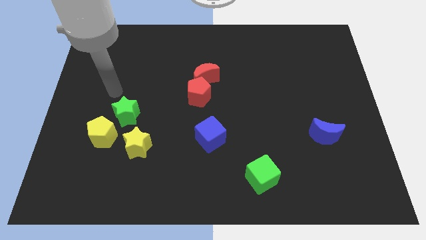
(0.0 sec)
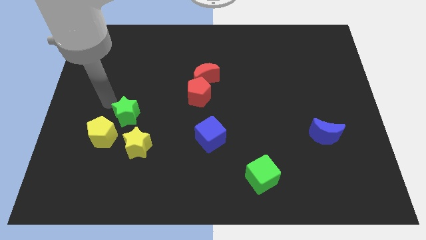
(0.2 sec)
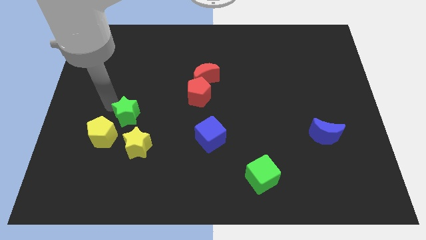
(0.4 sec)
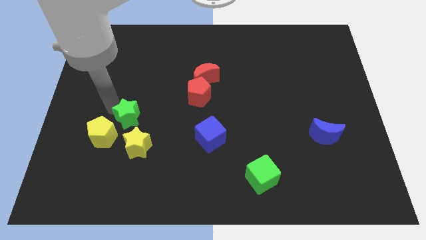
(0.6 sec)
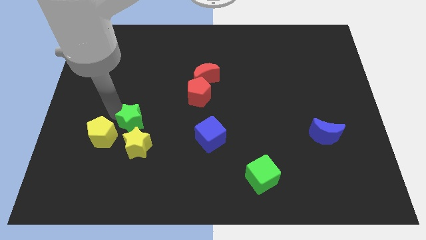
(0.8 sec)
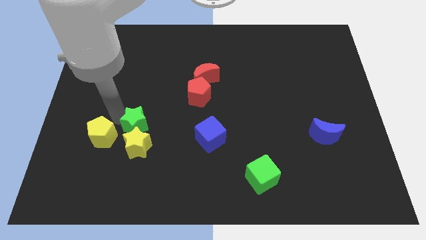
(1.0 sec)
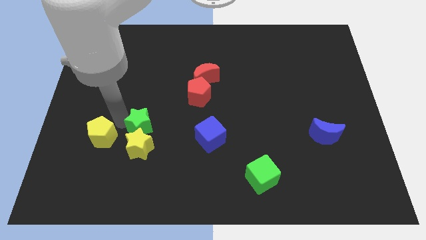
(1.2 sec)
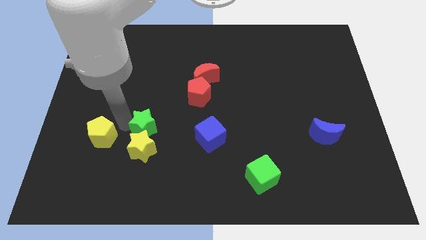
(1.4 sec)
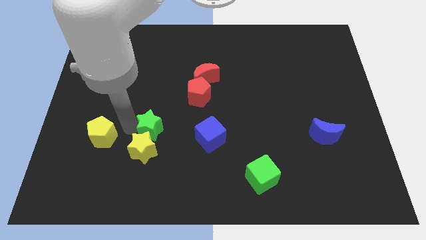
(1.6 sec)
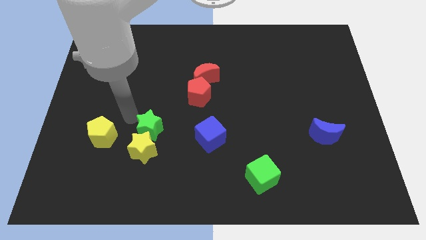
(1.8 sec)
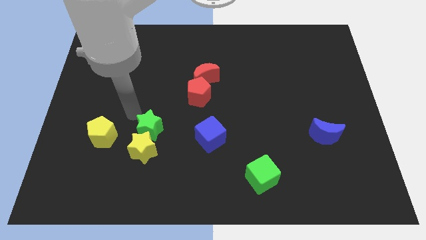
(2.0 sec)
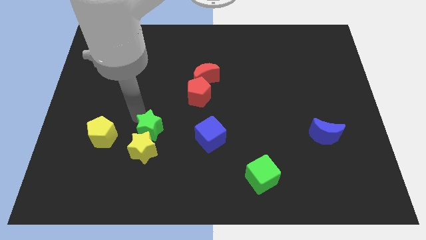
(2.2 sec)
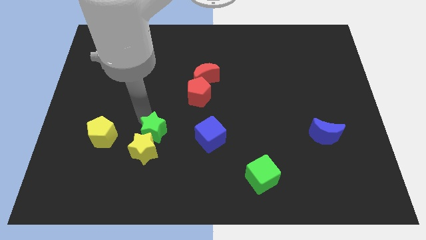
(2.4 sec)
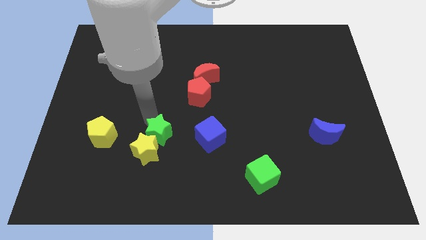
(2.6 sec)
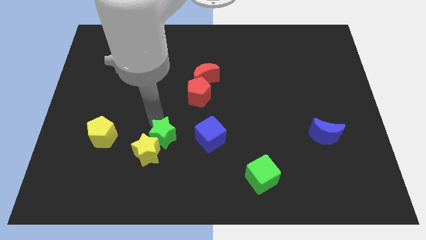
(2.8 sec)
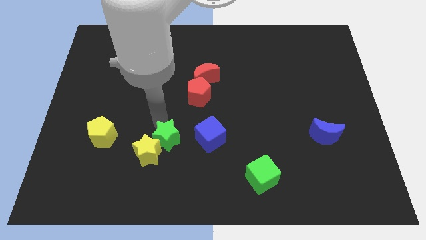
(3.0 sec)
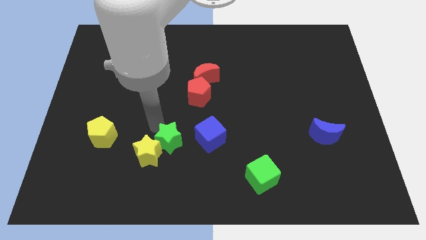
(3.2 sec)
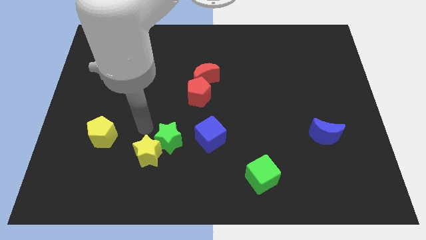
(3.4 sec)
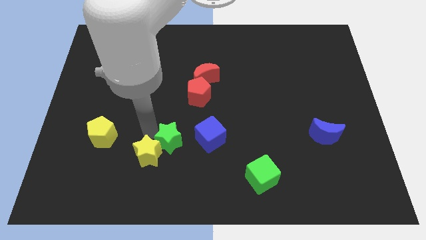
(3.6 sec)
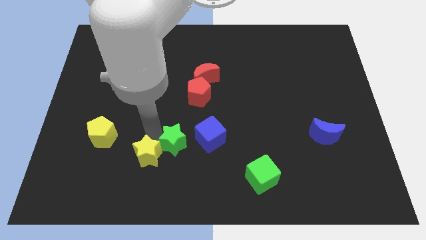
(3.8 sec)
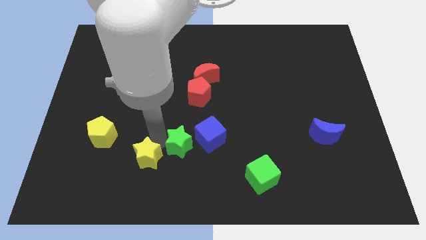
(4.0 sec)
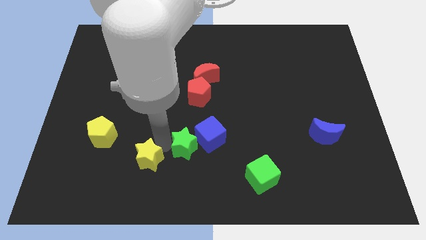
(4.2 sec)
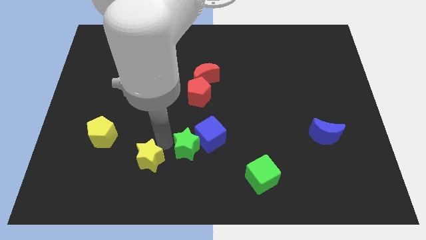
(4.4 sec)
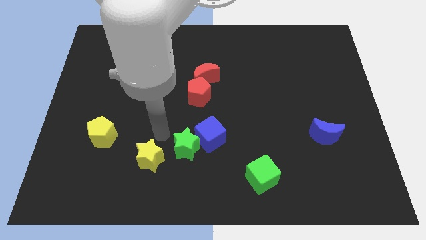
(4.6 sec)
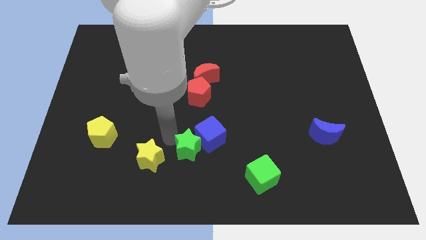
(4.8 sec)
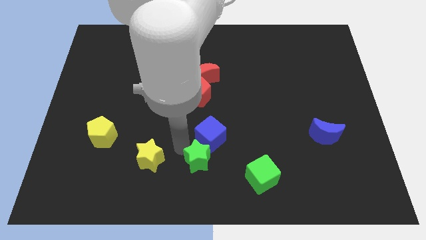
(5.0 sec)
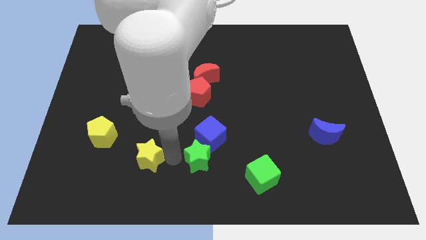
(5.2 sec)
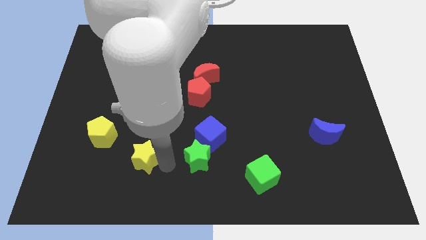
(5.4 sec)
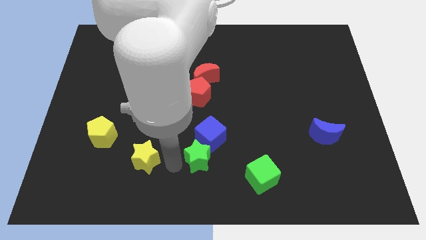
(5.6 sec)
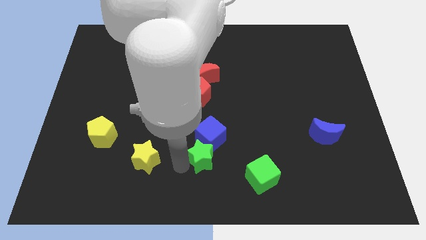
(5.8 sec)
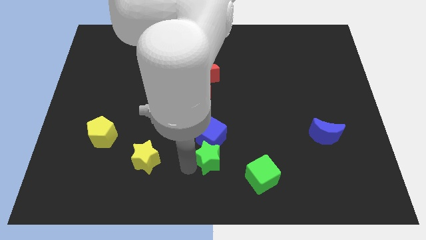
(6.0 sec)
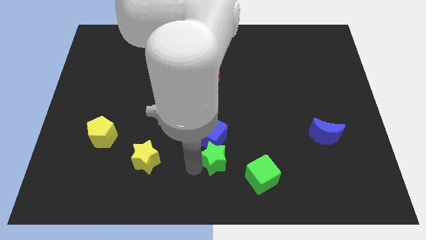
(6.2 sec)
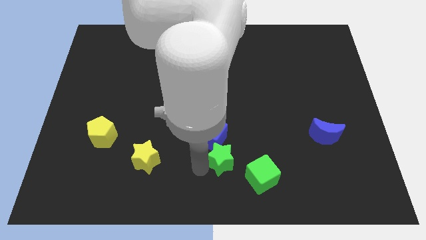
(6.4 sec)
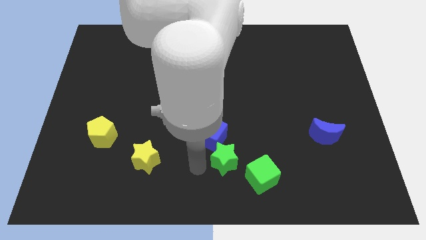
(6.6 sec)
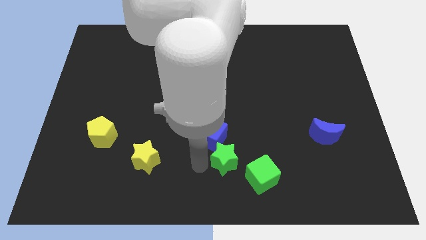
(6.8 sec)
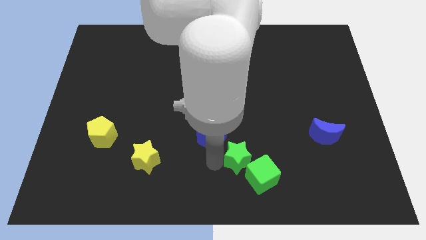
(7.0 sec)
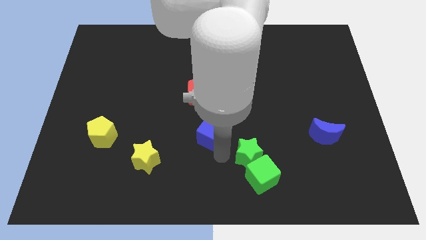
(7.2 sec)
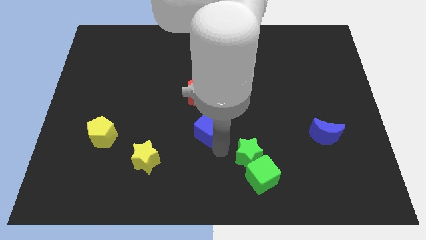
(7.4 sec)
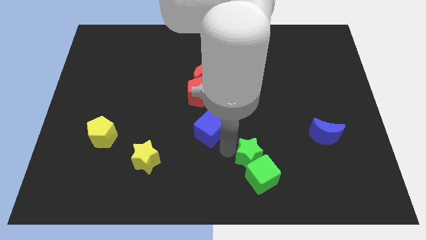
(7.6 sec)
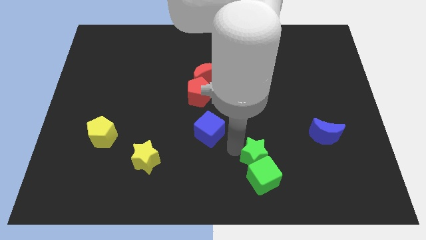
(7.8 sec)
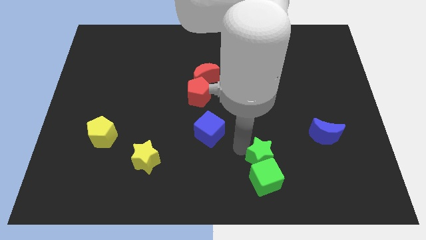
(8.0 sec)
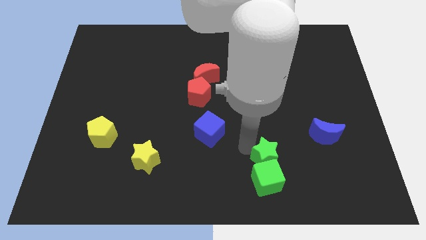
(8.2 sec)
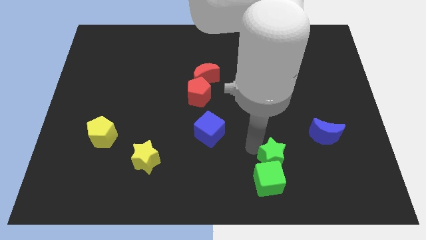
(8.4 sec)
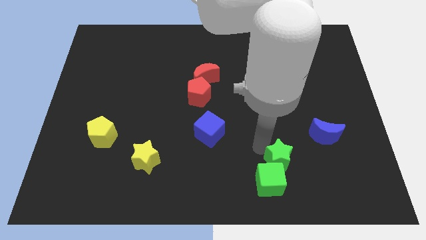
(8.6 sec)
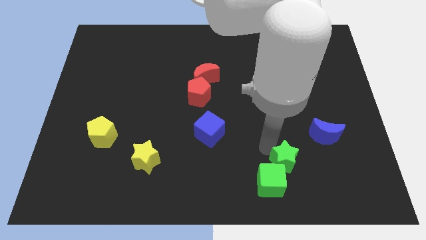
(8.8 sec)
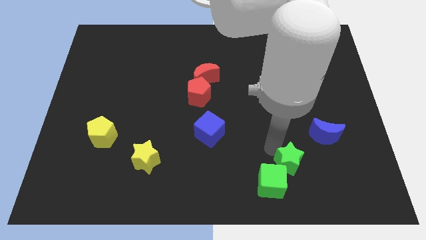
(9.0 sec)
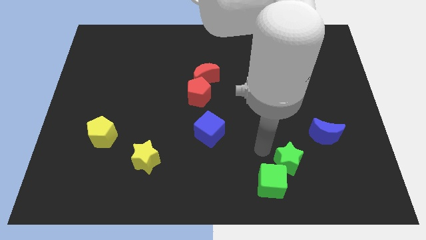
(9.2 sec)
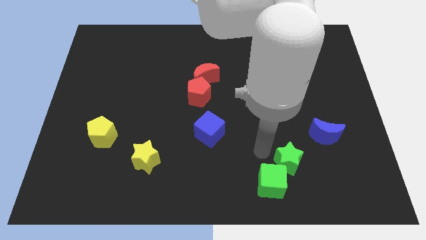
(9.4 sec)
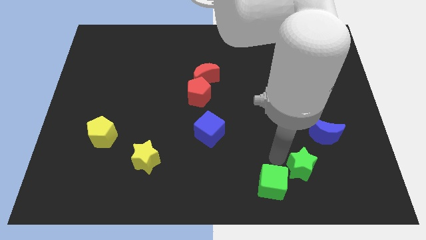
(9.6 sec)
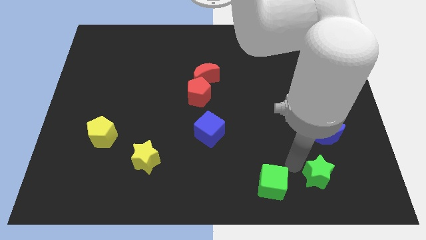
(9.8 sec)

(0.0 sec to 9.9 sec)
move the green star to the bottom of the blue moon

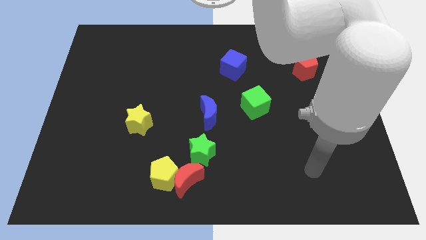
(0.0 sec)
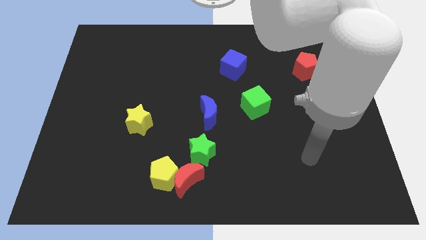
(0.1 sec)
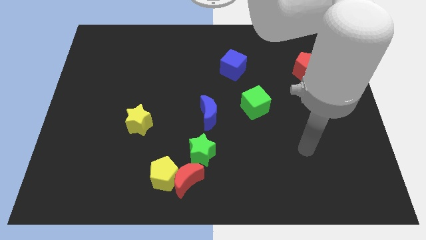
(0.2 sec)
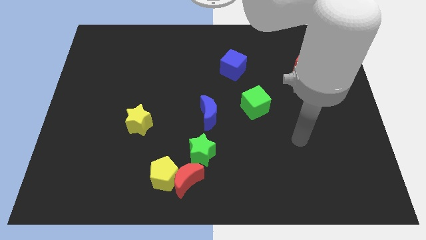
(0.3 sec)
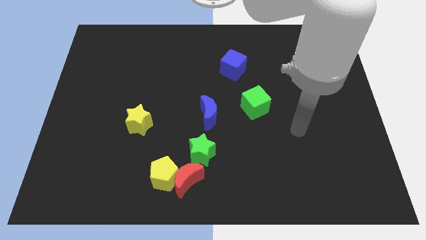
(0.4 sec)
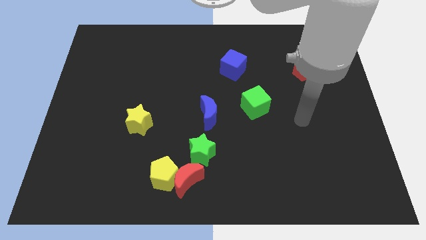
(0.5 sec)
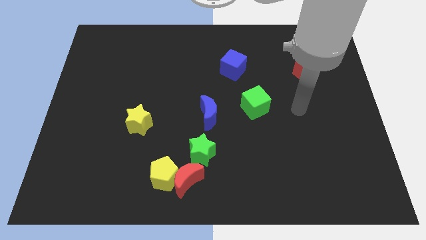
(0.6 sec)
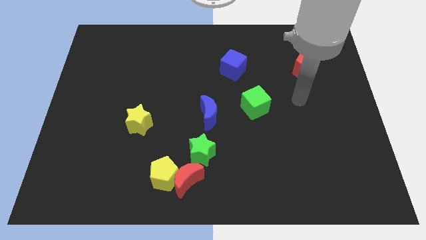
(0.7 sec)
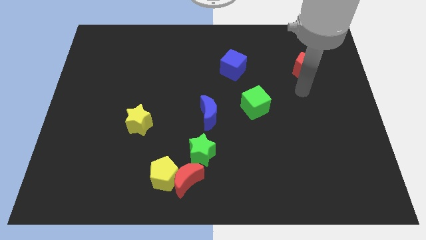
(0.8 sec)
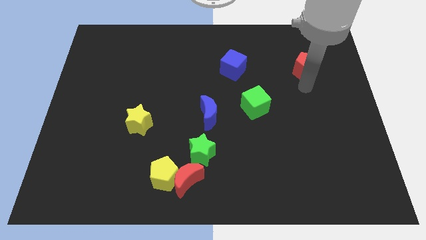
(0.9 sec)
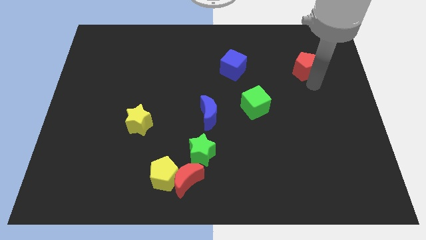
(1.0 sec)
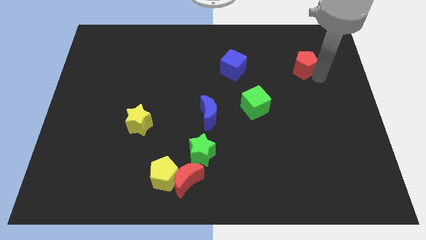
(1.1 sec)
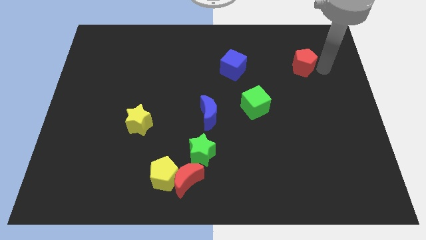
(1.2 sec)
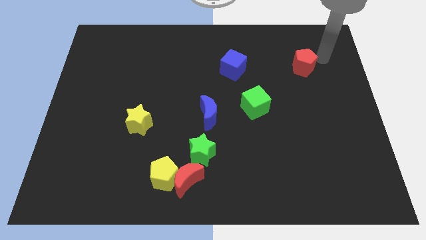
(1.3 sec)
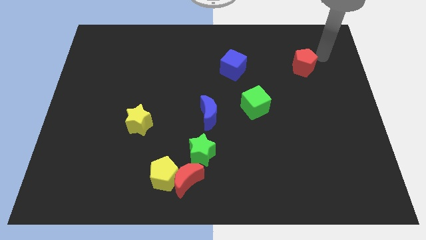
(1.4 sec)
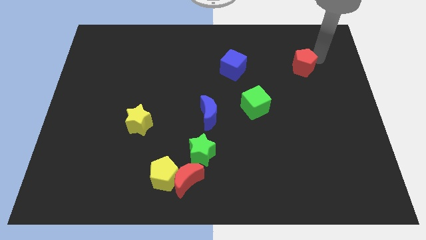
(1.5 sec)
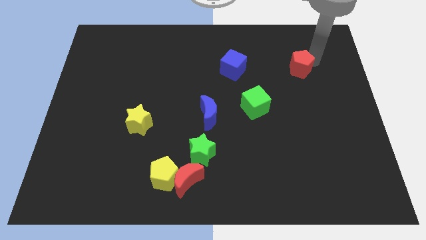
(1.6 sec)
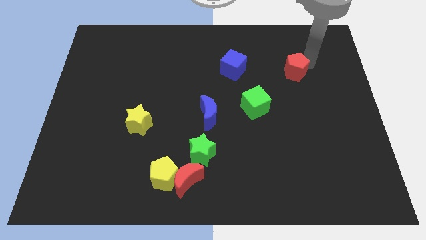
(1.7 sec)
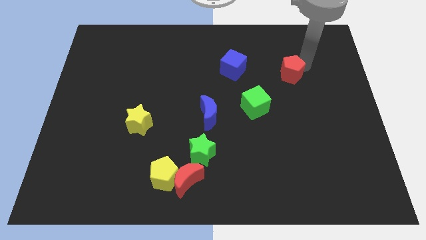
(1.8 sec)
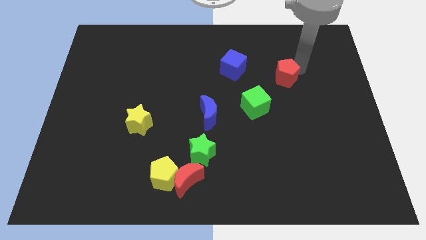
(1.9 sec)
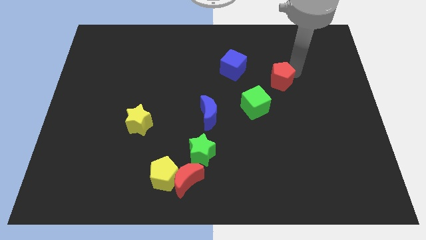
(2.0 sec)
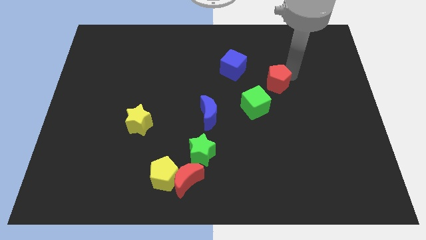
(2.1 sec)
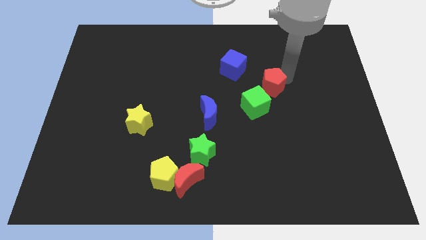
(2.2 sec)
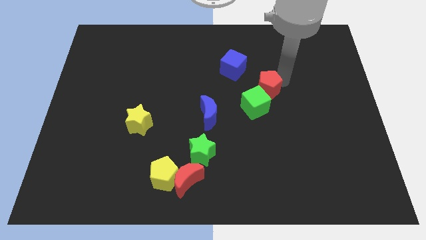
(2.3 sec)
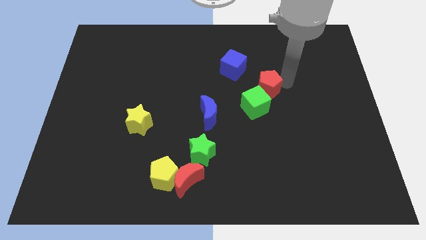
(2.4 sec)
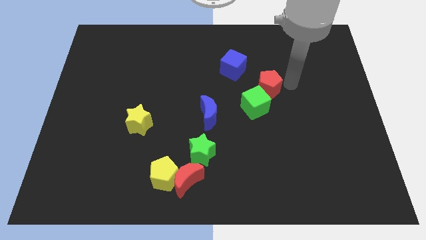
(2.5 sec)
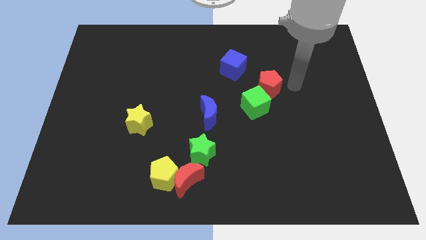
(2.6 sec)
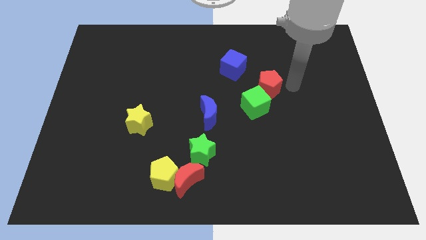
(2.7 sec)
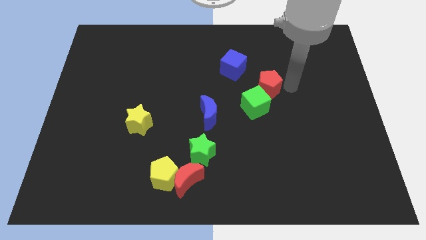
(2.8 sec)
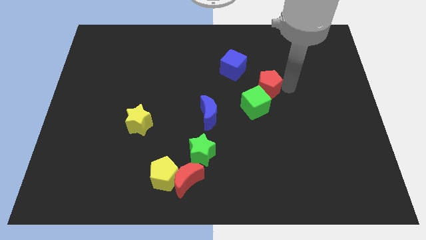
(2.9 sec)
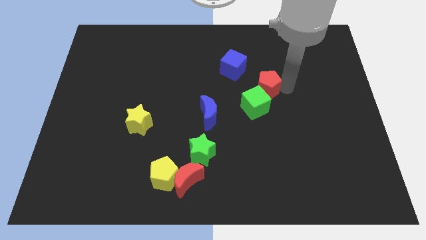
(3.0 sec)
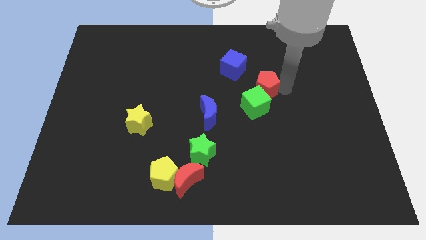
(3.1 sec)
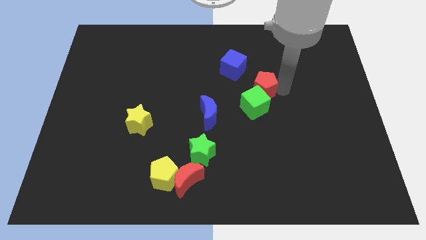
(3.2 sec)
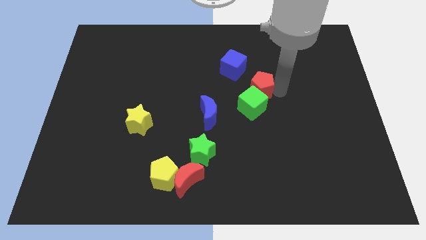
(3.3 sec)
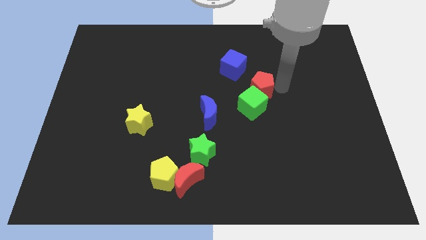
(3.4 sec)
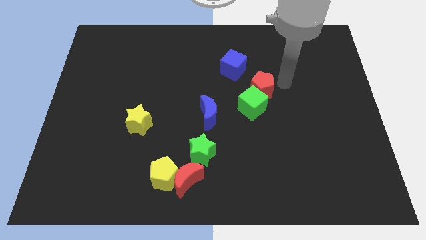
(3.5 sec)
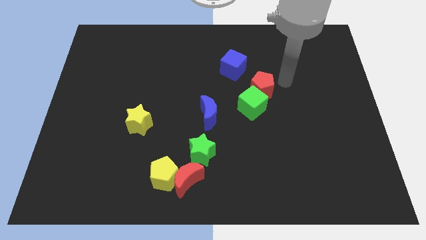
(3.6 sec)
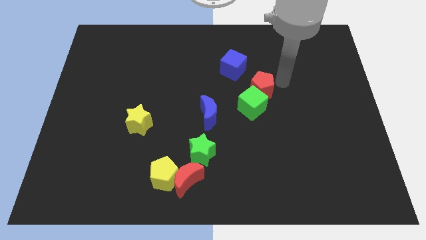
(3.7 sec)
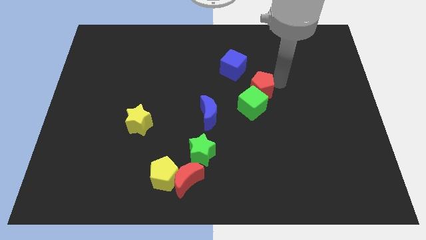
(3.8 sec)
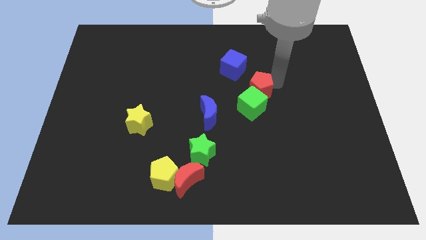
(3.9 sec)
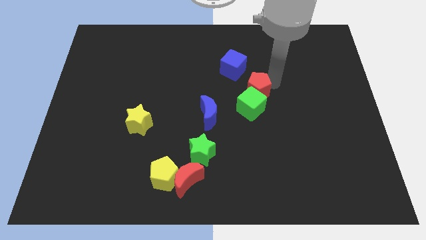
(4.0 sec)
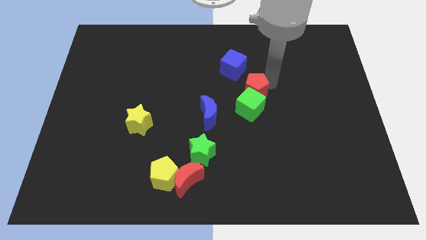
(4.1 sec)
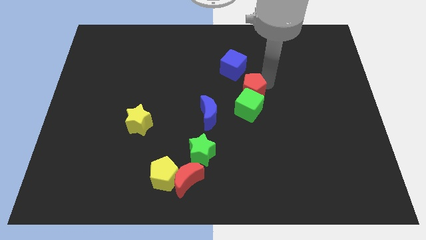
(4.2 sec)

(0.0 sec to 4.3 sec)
move the red pentagon to the bottom side of the blue cube
